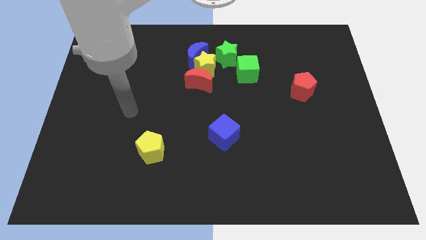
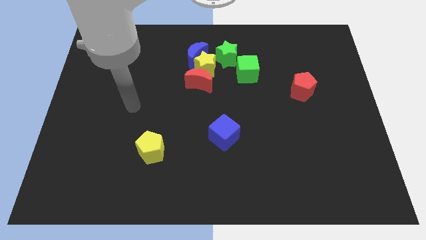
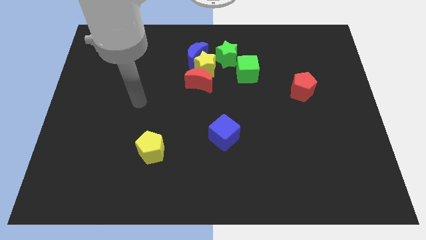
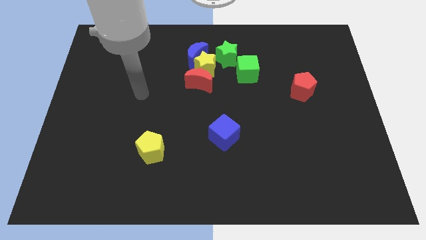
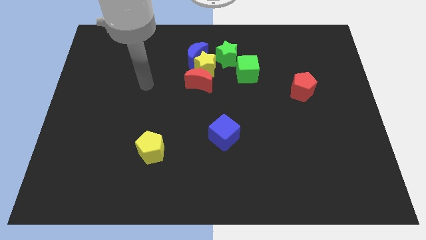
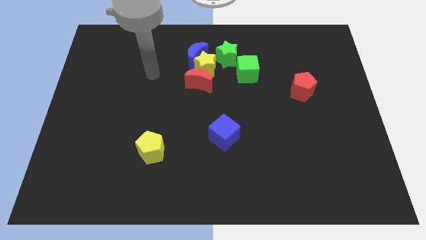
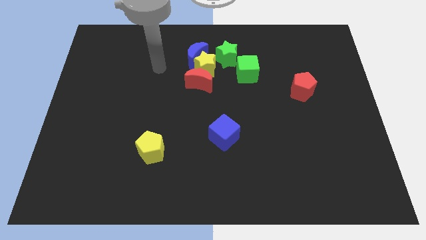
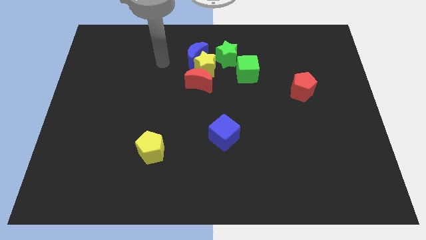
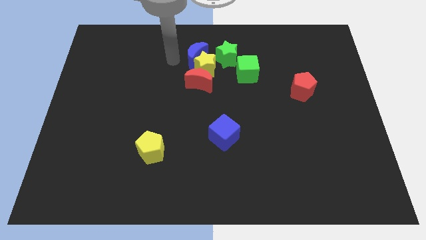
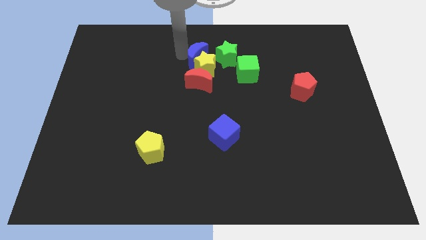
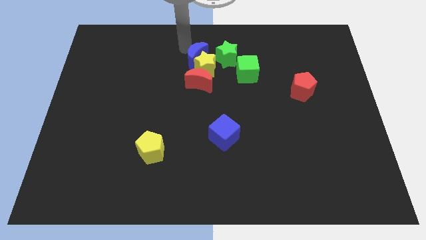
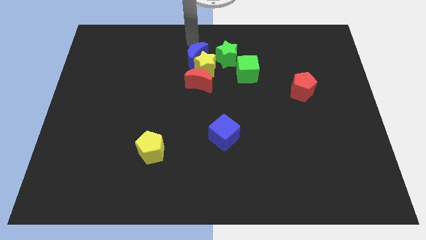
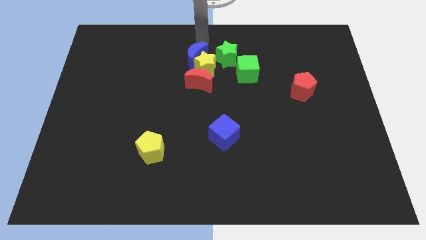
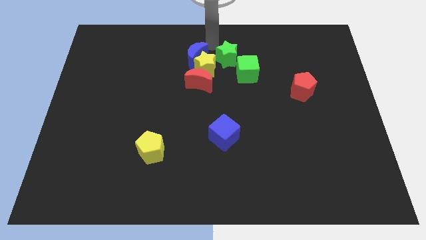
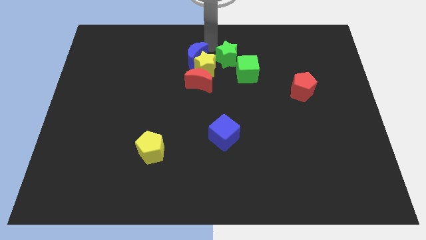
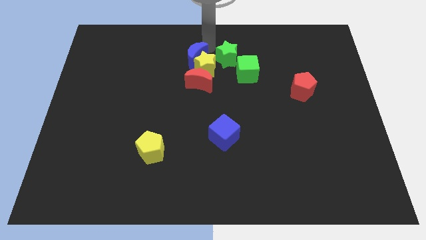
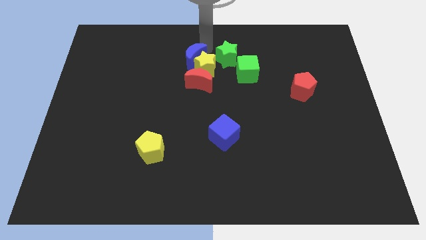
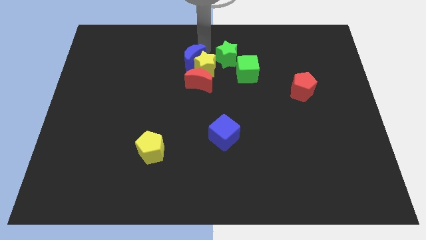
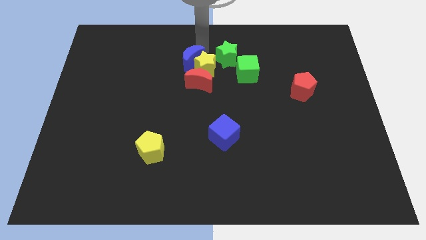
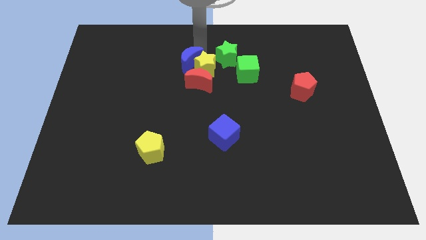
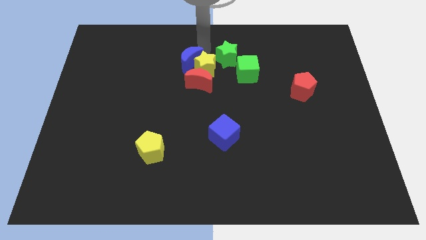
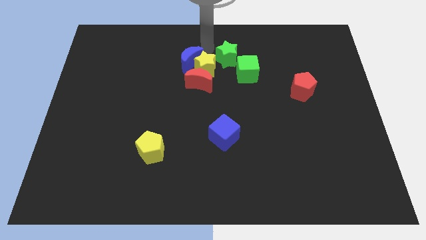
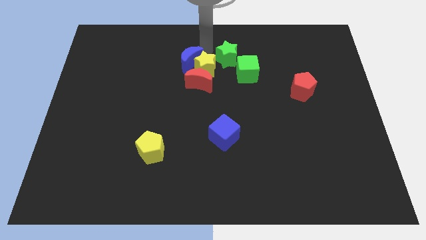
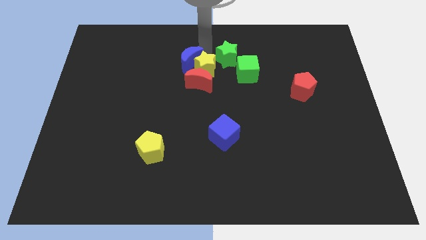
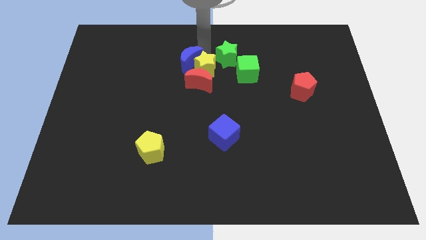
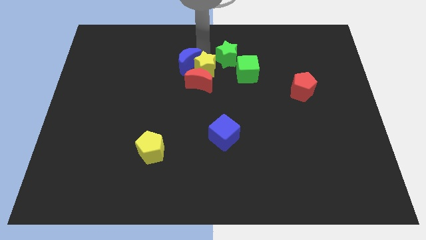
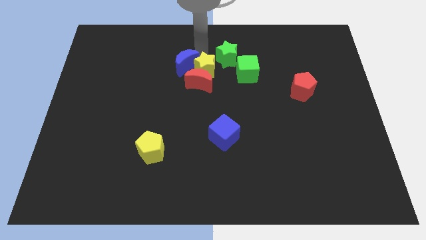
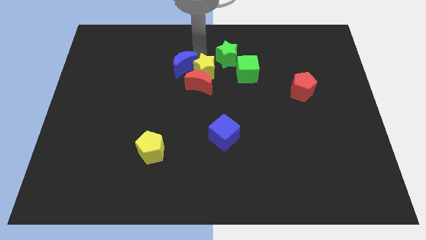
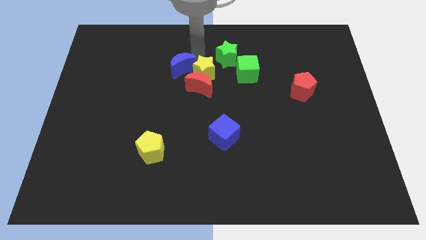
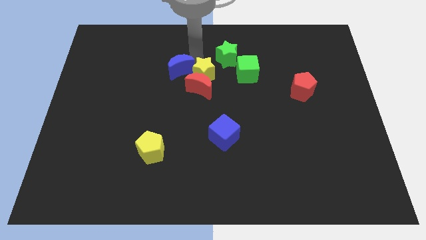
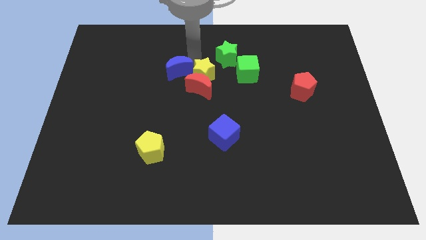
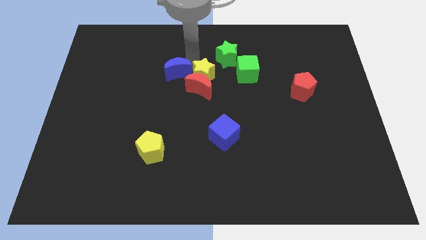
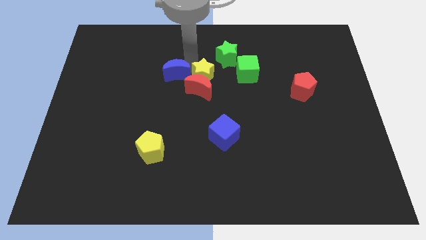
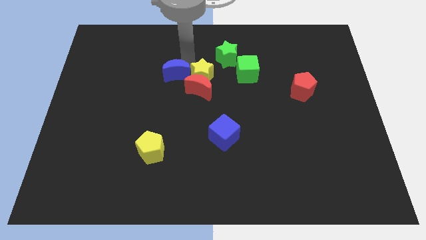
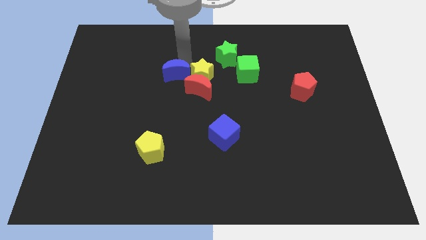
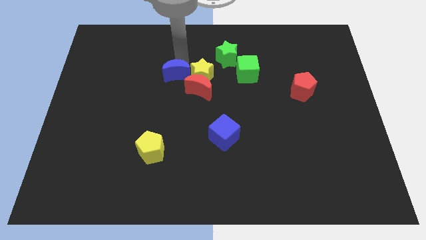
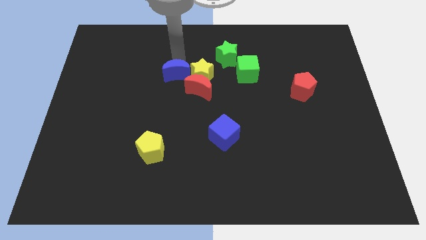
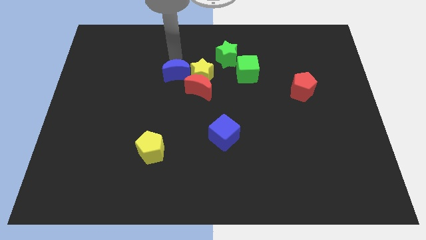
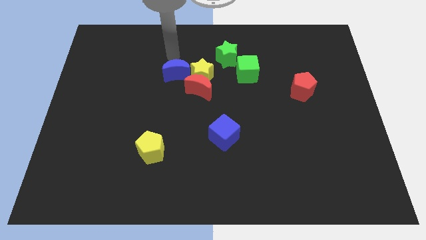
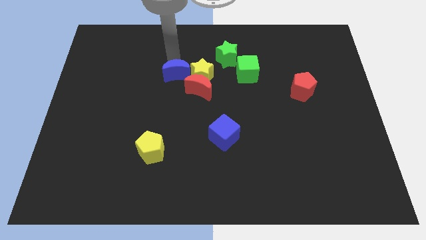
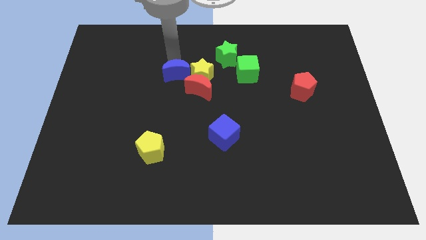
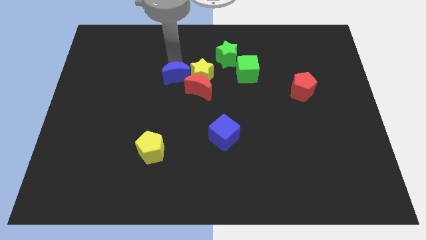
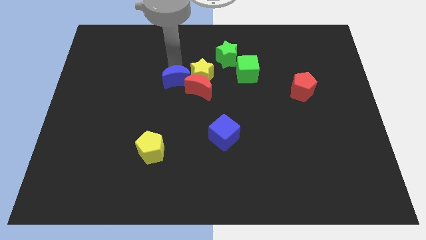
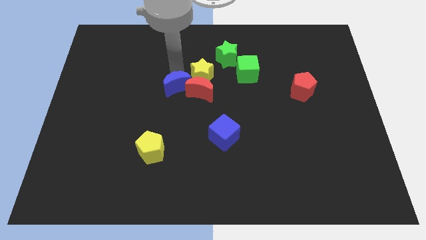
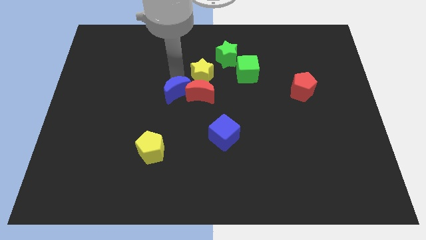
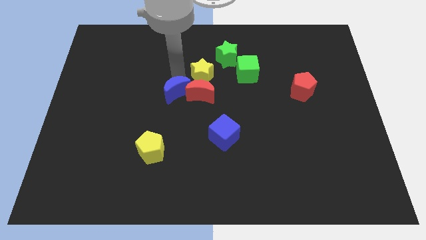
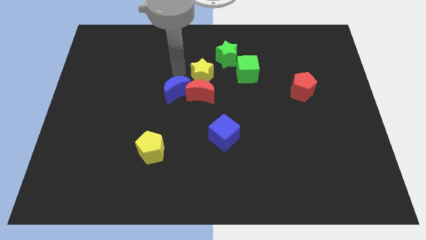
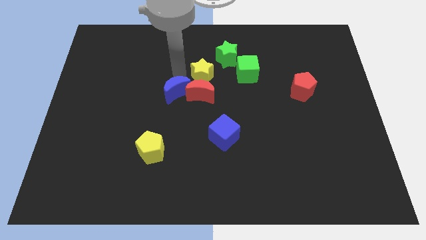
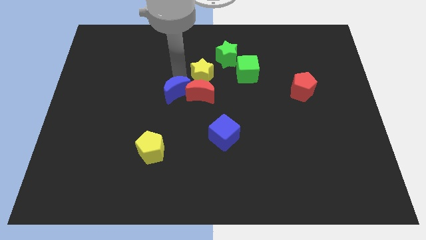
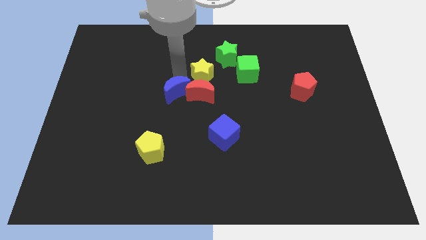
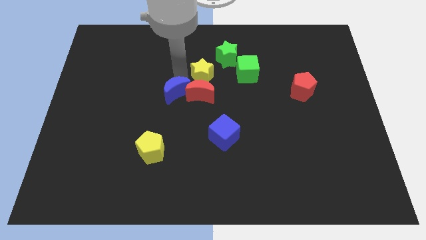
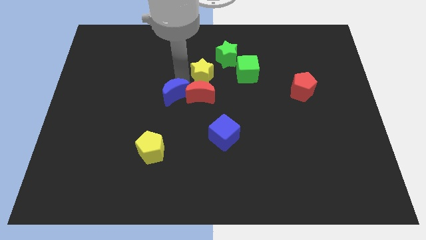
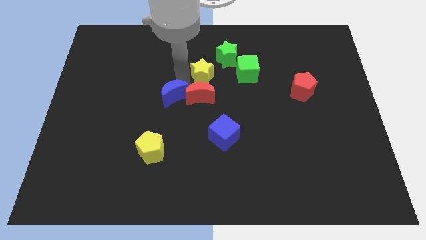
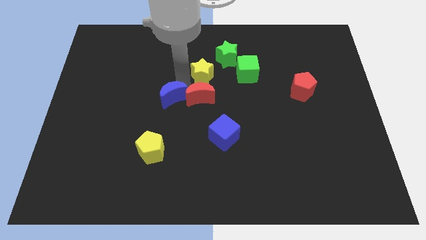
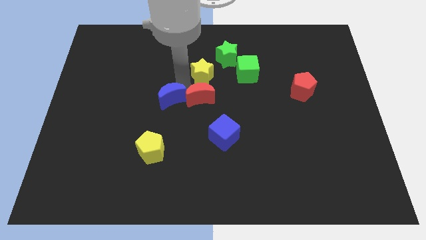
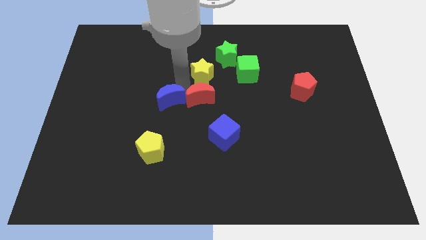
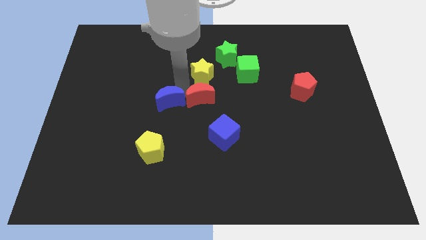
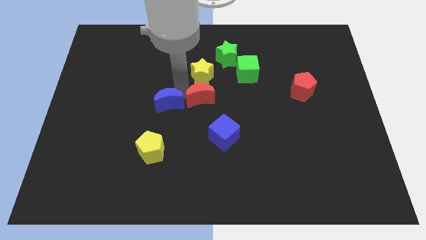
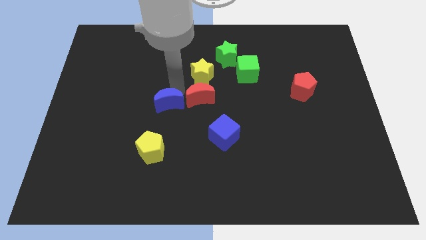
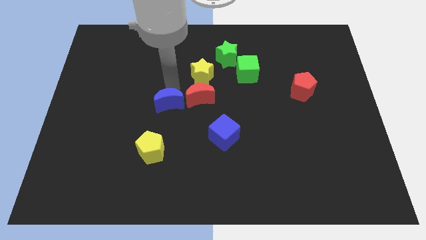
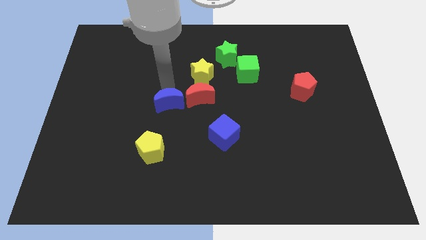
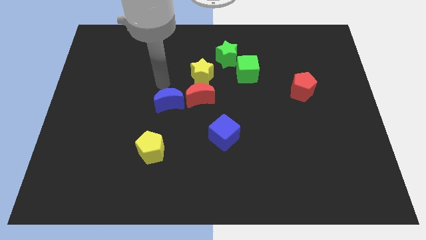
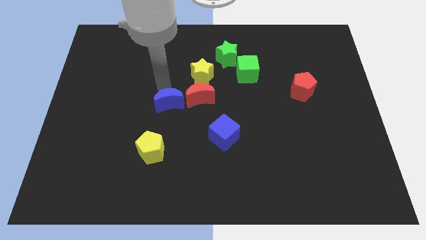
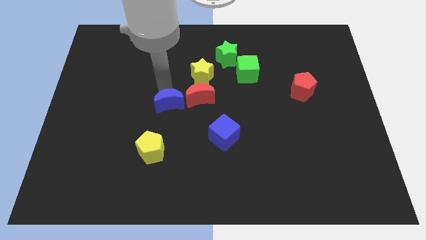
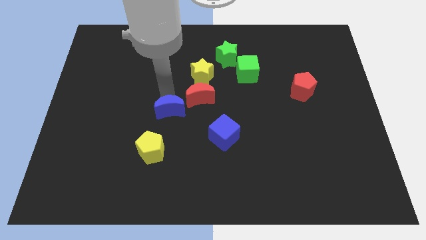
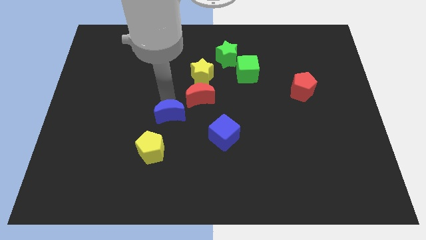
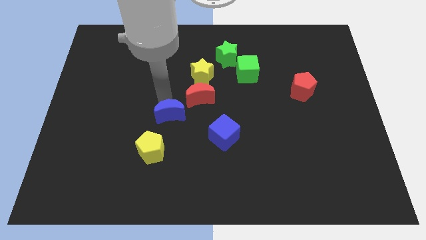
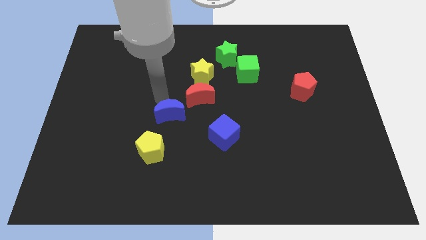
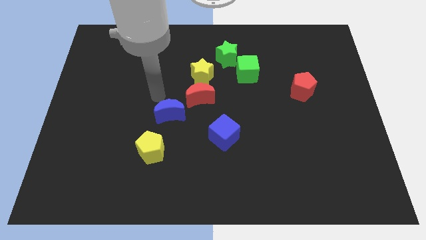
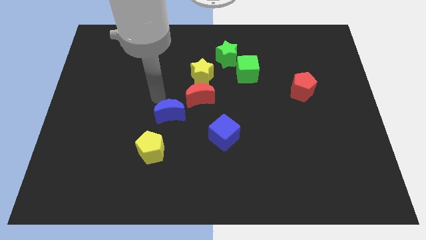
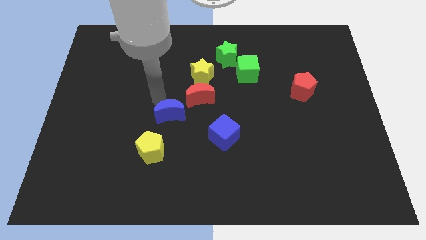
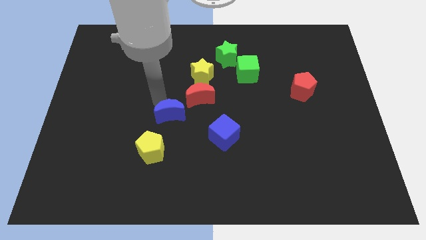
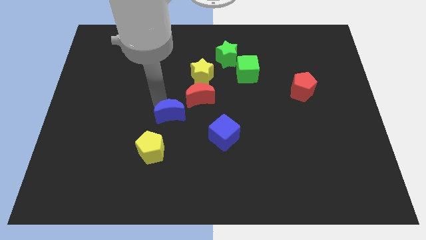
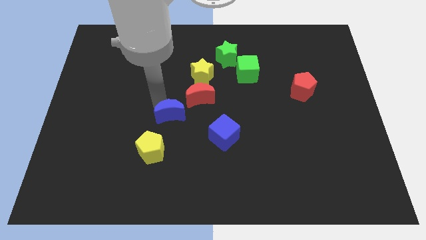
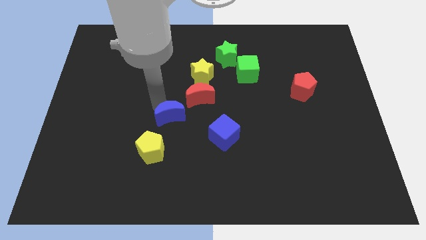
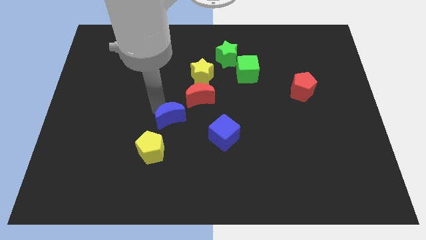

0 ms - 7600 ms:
move the blue moon left of the blue cube

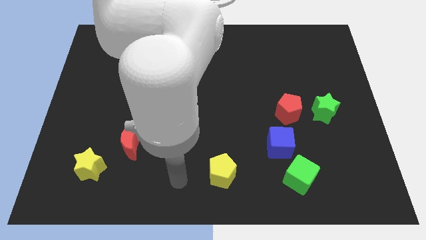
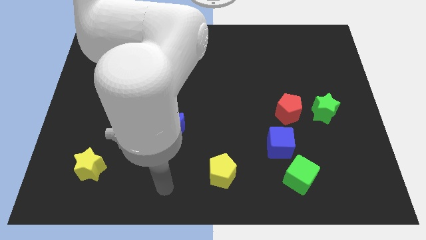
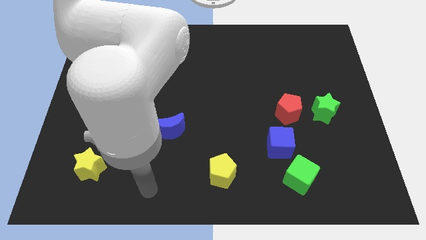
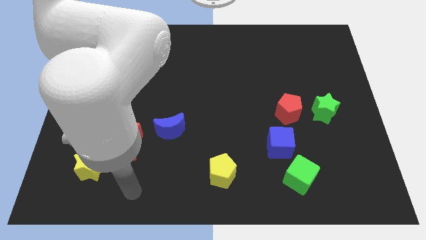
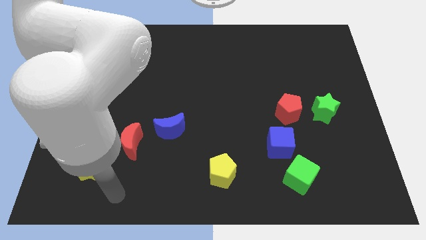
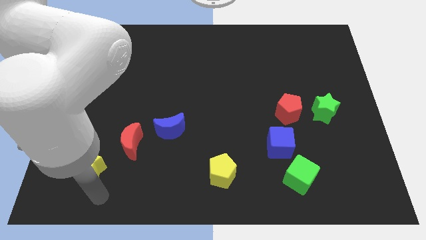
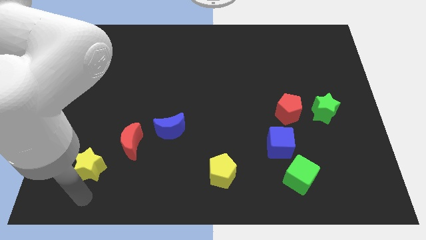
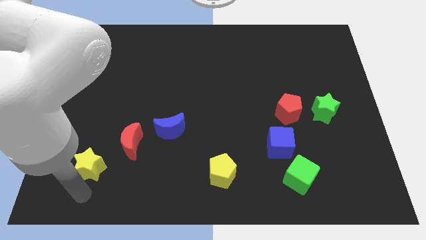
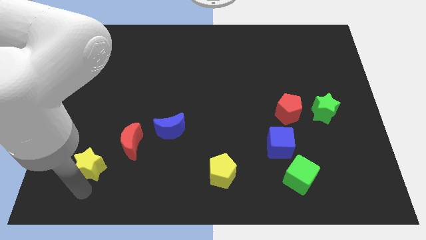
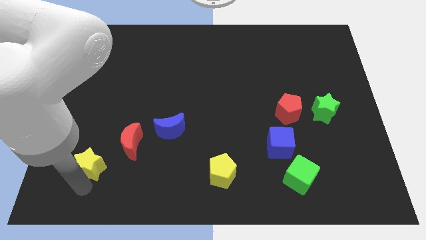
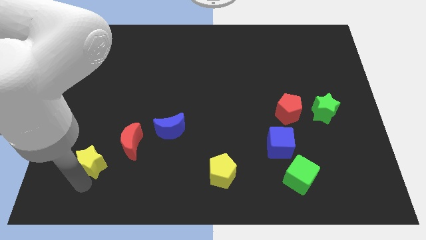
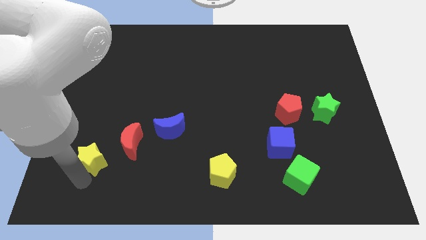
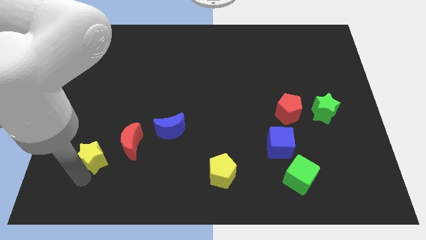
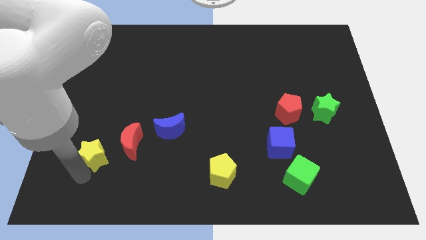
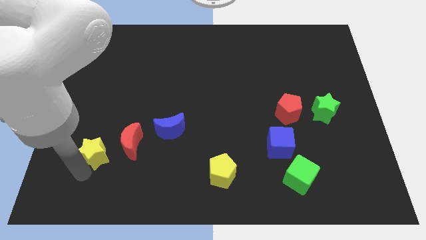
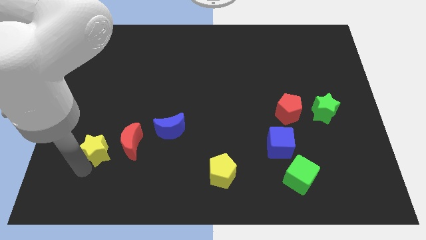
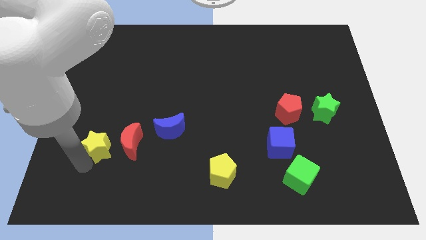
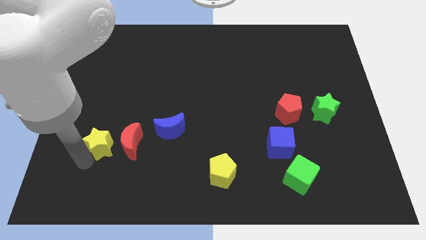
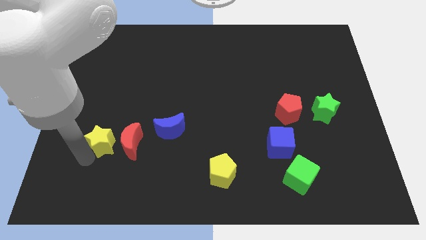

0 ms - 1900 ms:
slide the yellow star to the top left of the red moon
